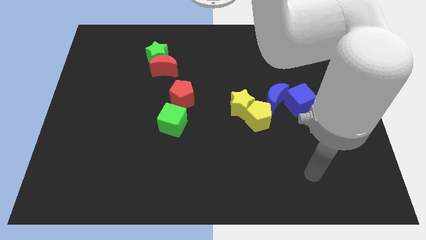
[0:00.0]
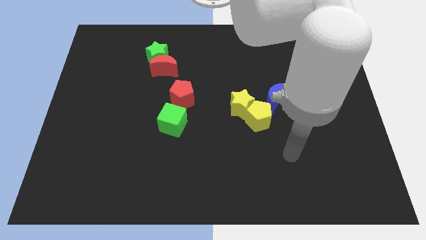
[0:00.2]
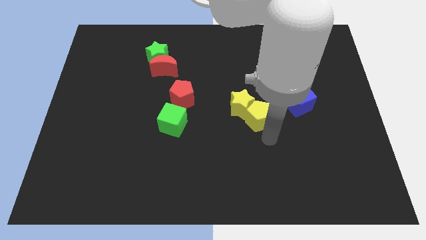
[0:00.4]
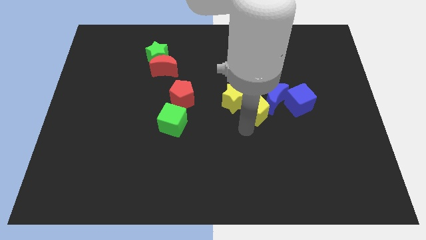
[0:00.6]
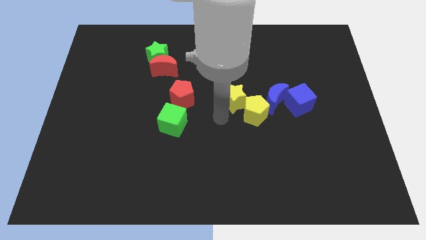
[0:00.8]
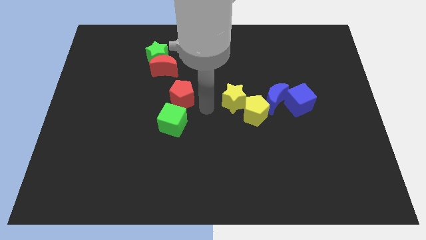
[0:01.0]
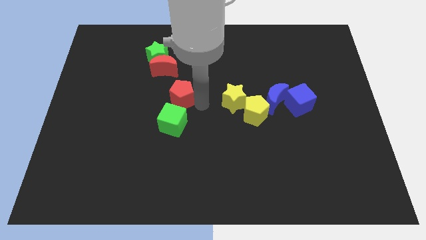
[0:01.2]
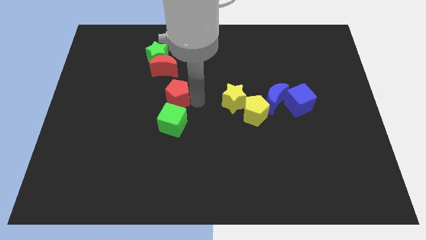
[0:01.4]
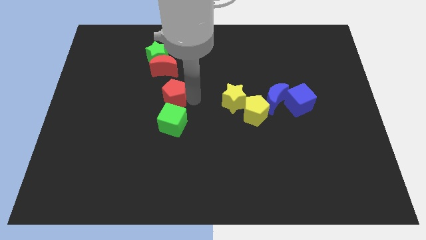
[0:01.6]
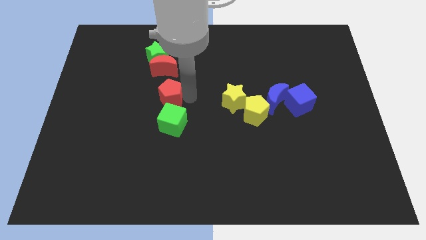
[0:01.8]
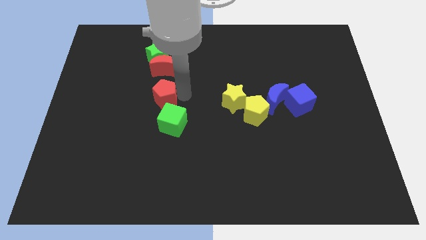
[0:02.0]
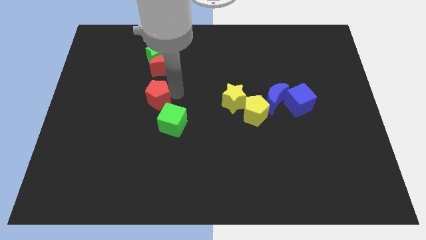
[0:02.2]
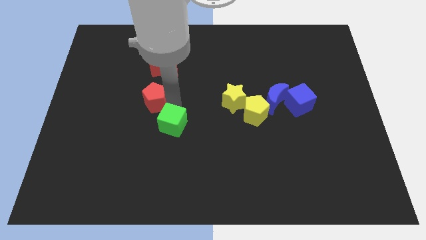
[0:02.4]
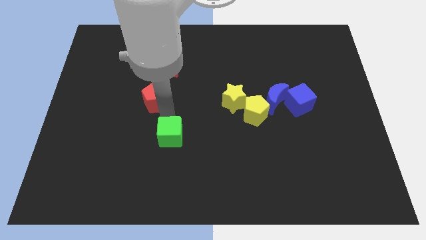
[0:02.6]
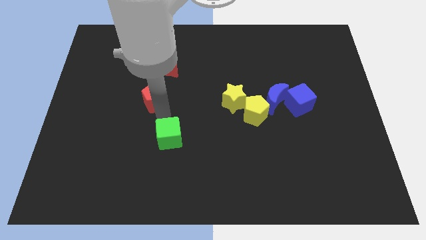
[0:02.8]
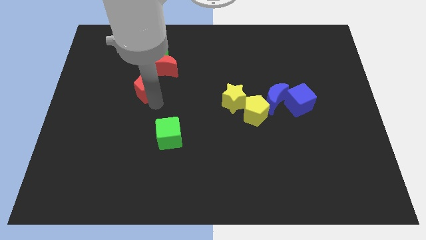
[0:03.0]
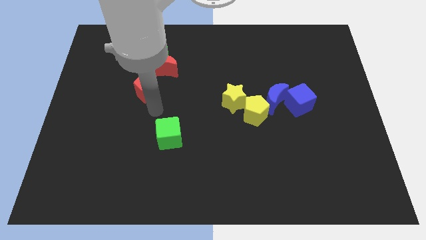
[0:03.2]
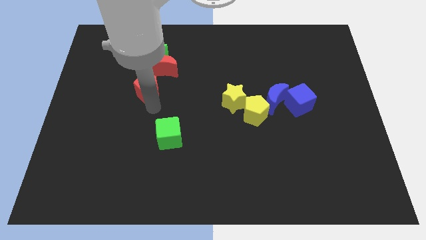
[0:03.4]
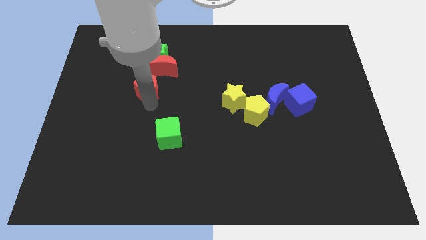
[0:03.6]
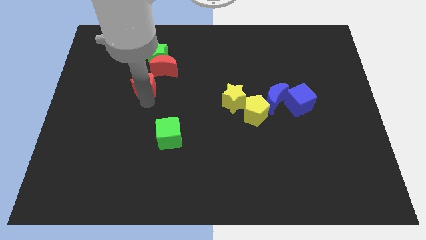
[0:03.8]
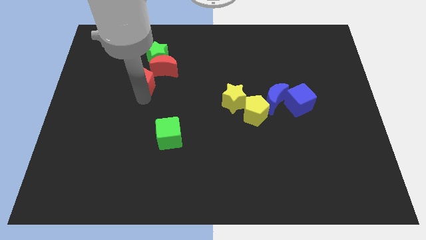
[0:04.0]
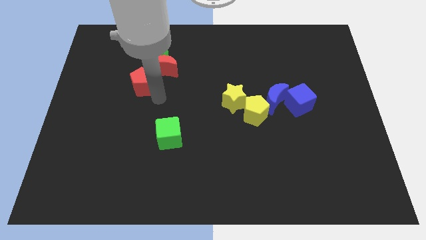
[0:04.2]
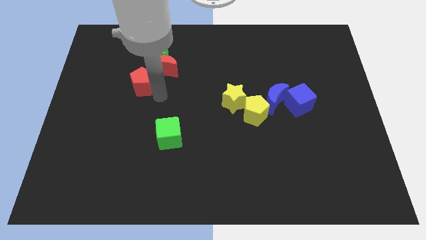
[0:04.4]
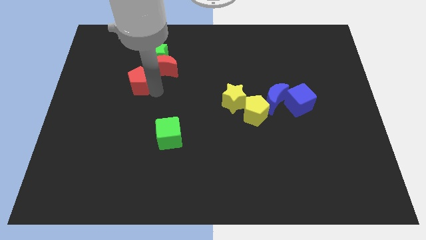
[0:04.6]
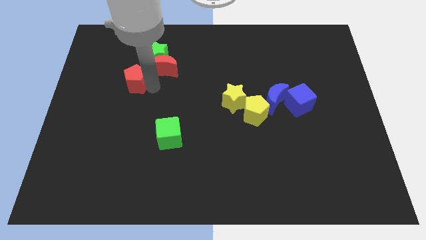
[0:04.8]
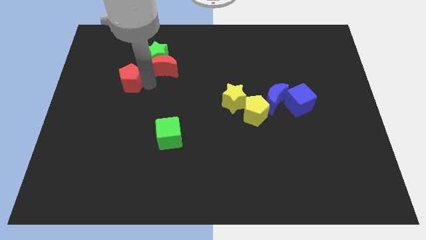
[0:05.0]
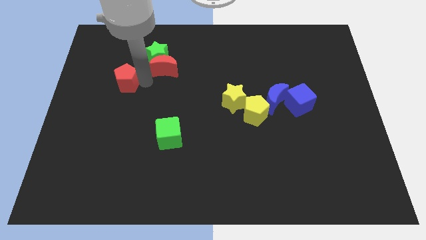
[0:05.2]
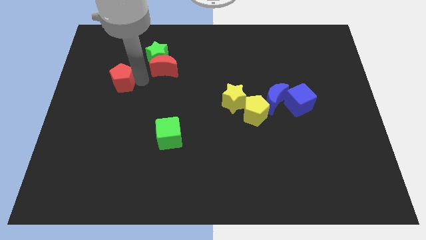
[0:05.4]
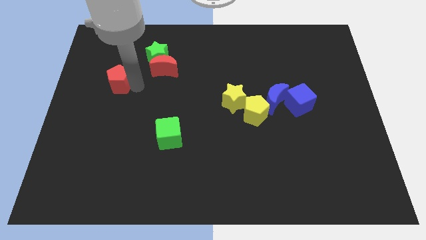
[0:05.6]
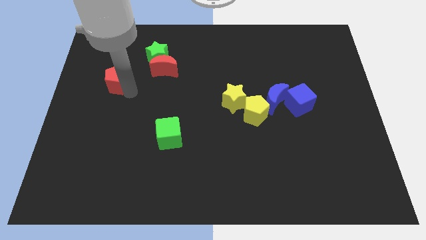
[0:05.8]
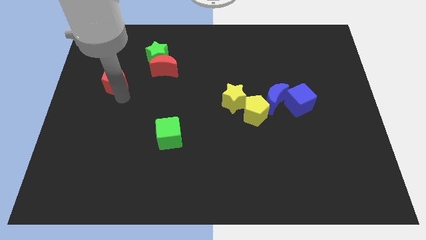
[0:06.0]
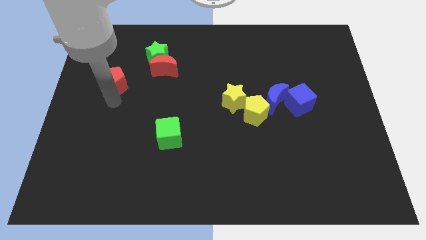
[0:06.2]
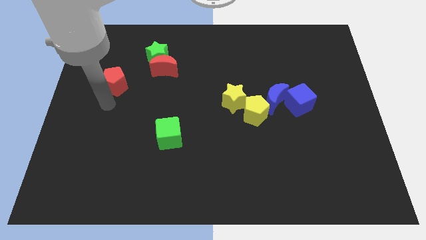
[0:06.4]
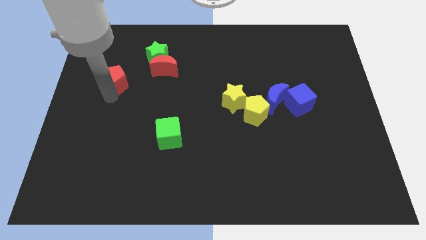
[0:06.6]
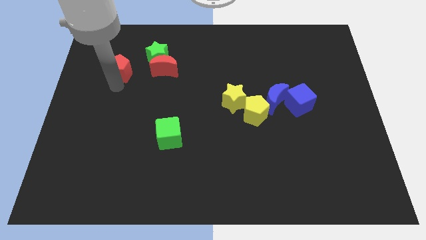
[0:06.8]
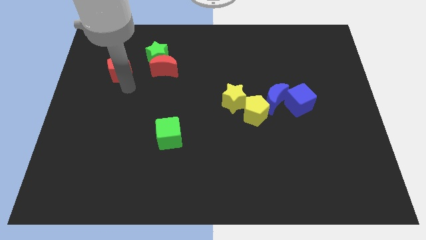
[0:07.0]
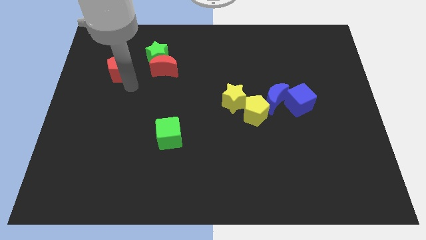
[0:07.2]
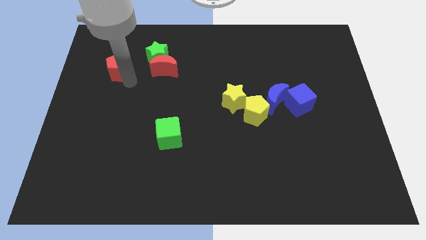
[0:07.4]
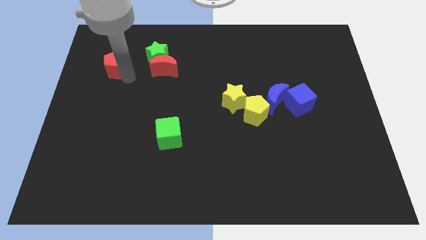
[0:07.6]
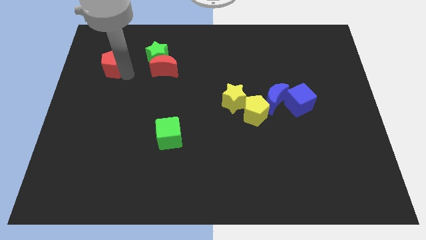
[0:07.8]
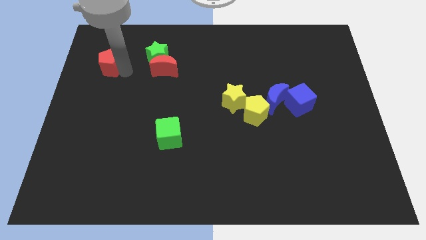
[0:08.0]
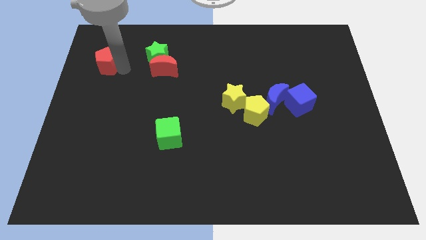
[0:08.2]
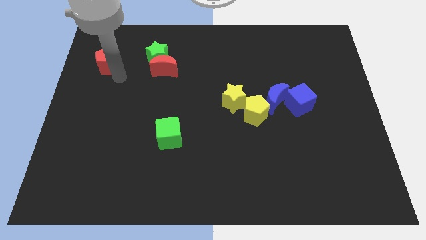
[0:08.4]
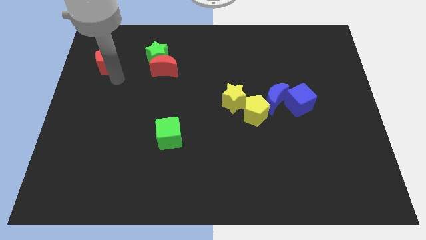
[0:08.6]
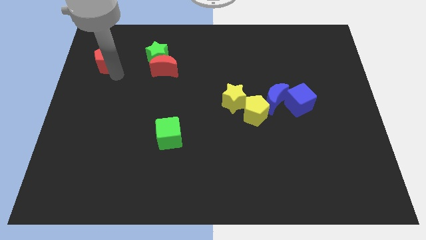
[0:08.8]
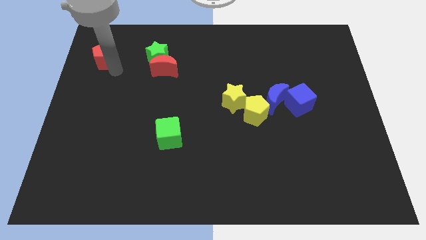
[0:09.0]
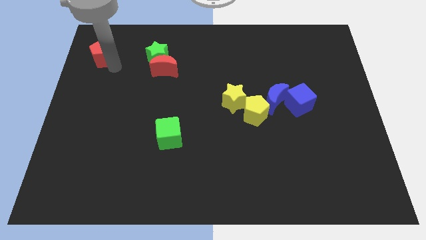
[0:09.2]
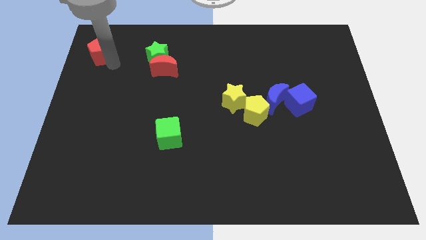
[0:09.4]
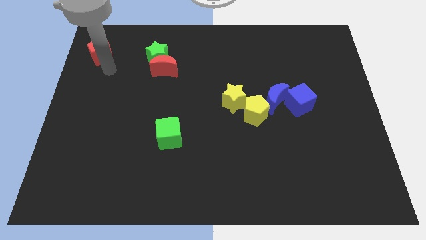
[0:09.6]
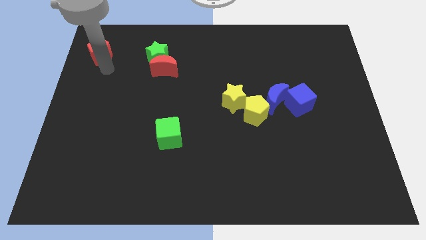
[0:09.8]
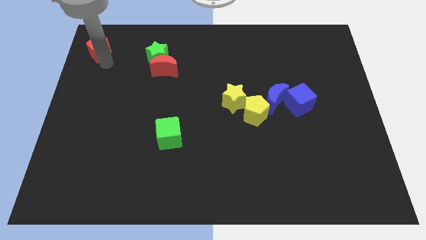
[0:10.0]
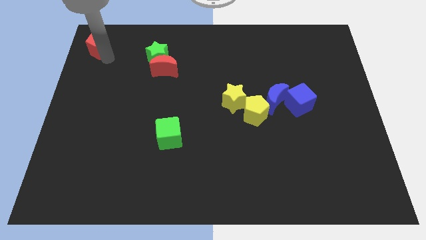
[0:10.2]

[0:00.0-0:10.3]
push the red pentagon to the upper left corner

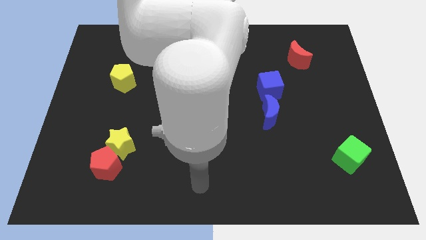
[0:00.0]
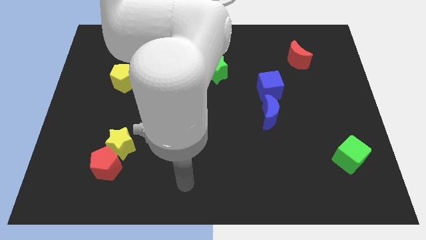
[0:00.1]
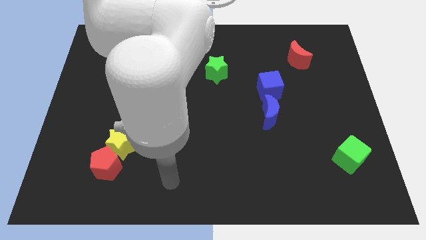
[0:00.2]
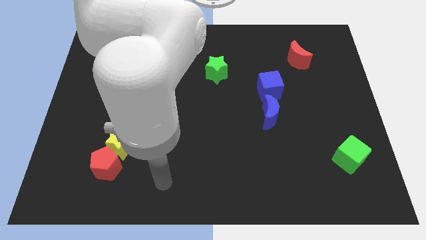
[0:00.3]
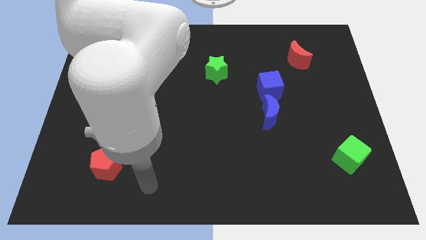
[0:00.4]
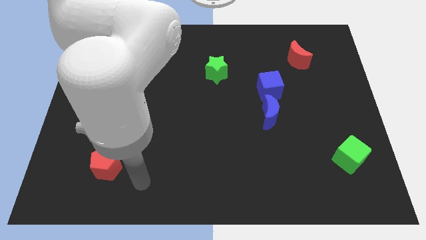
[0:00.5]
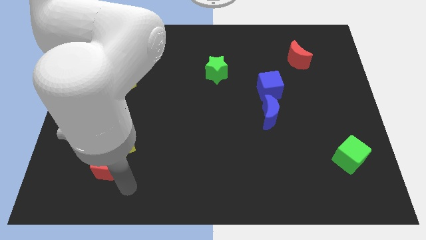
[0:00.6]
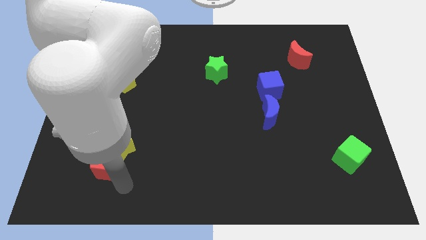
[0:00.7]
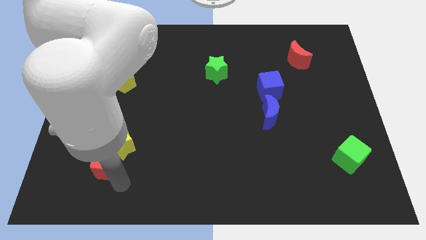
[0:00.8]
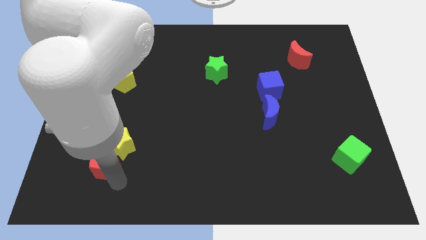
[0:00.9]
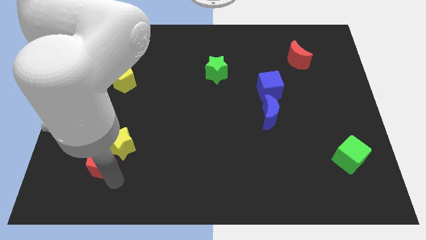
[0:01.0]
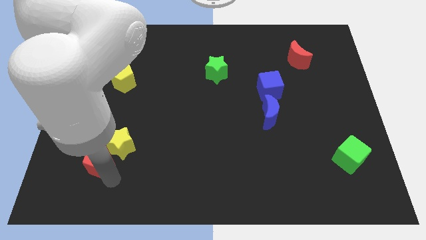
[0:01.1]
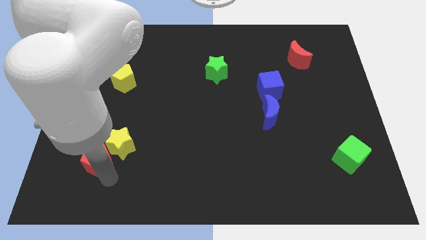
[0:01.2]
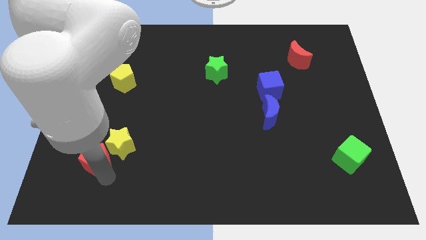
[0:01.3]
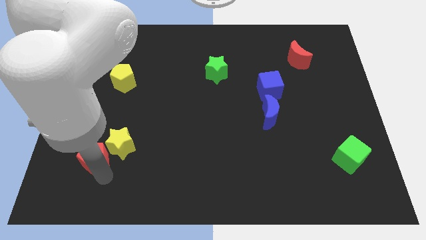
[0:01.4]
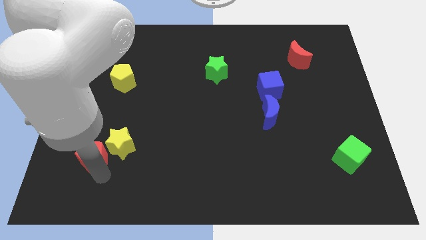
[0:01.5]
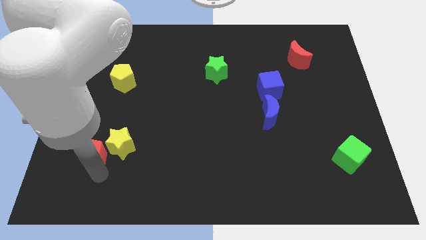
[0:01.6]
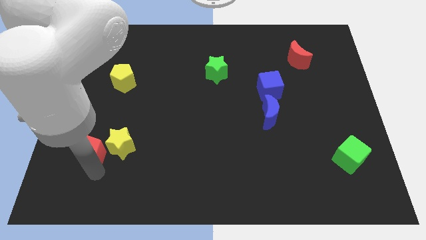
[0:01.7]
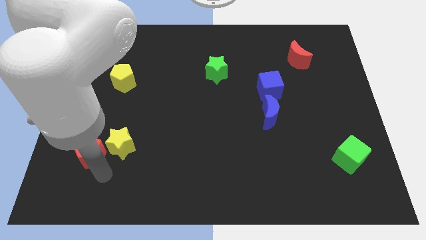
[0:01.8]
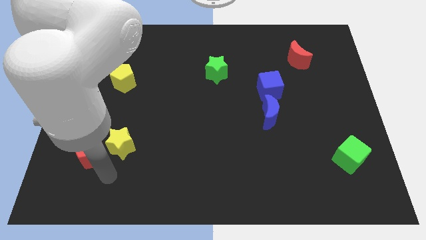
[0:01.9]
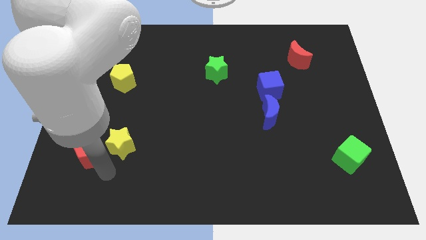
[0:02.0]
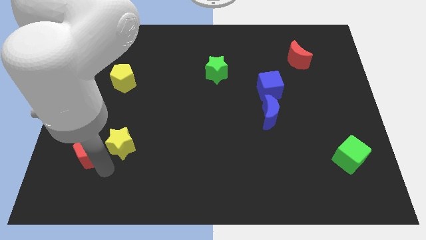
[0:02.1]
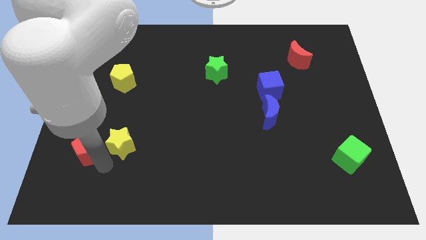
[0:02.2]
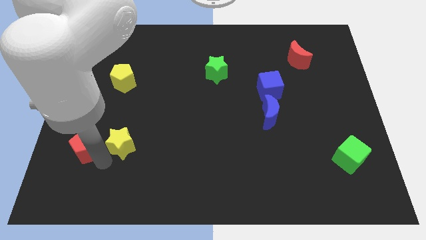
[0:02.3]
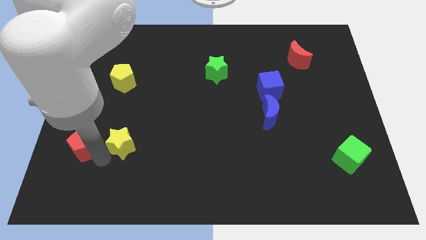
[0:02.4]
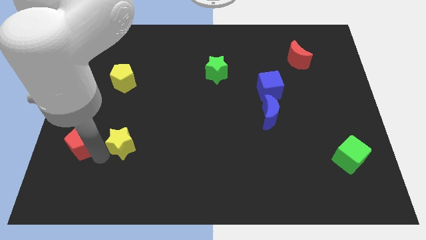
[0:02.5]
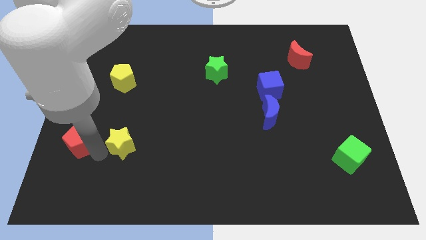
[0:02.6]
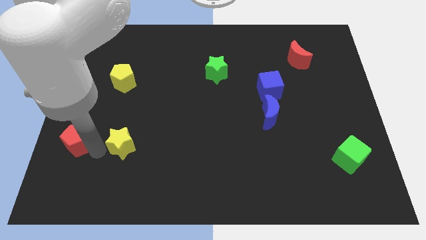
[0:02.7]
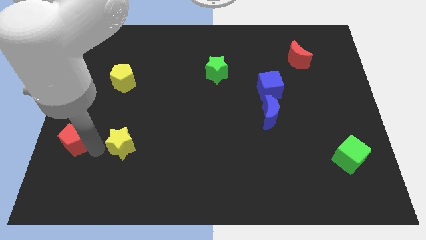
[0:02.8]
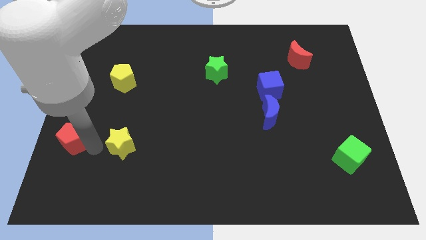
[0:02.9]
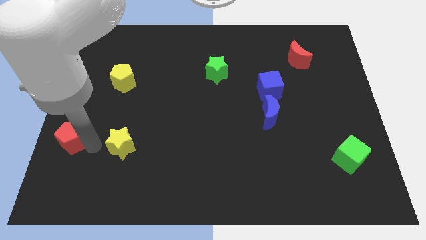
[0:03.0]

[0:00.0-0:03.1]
slide the red pentagon to the center left
